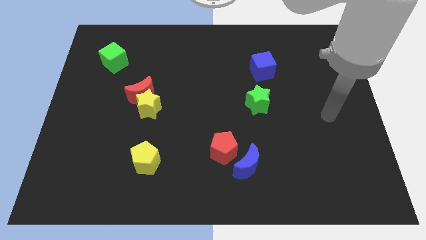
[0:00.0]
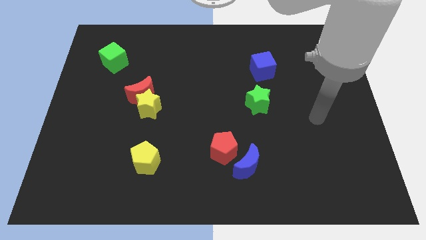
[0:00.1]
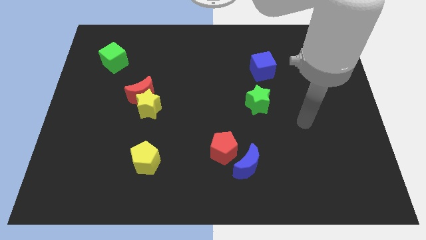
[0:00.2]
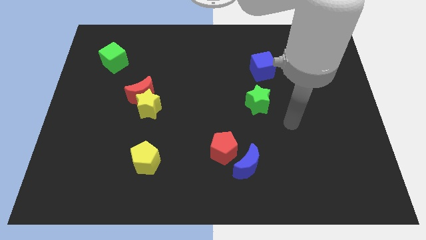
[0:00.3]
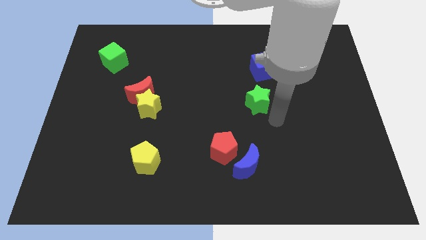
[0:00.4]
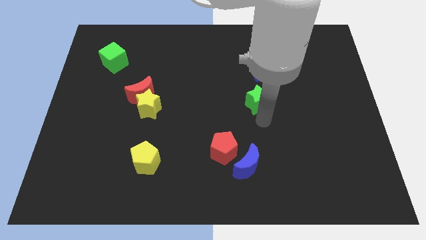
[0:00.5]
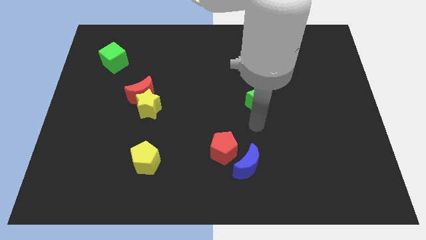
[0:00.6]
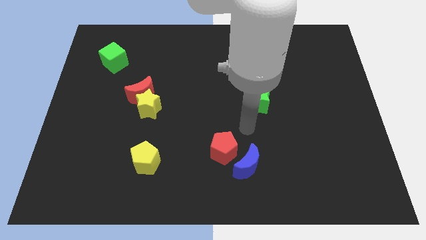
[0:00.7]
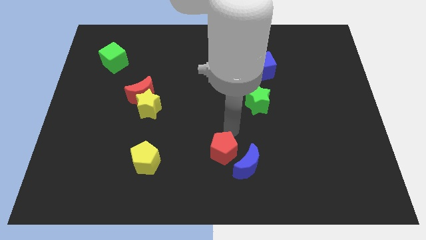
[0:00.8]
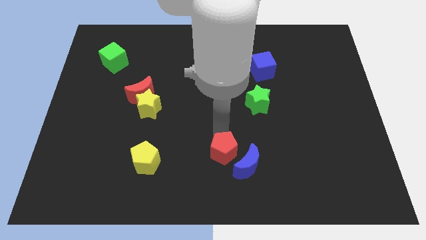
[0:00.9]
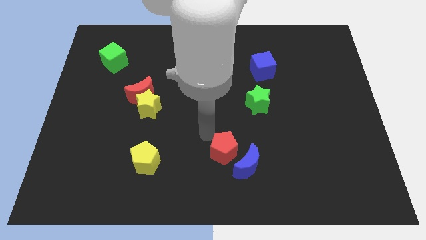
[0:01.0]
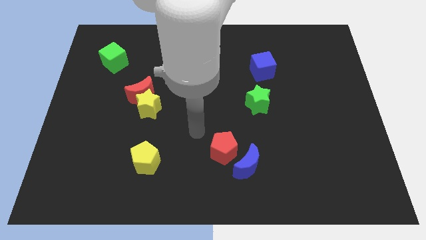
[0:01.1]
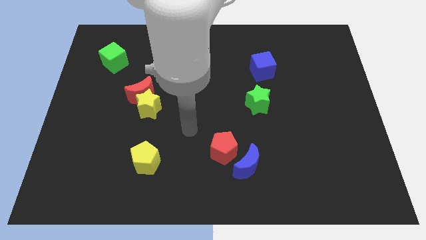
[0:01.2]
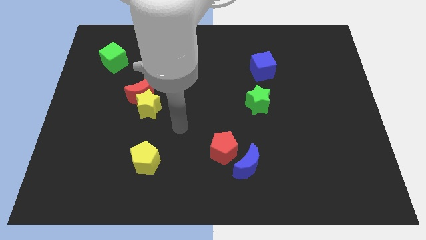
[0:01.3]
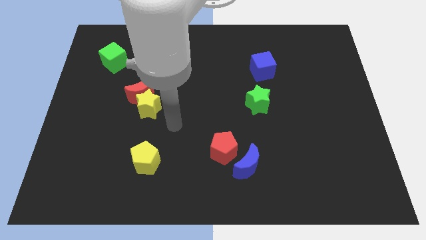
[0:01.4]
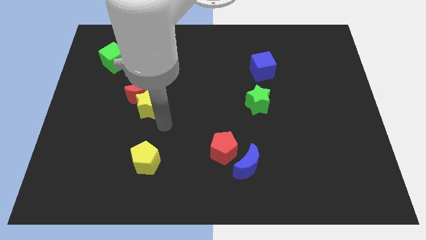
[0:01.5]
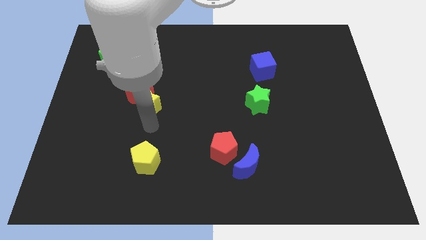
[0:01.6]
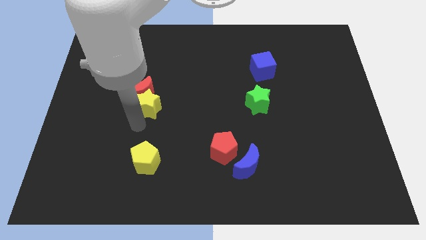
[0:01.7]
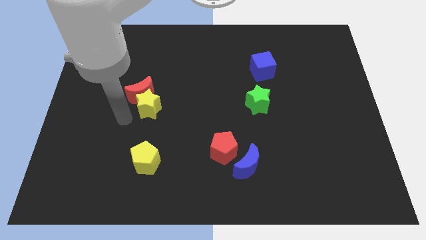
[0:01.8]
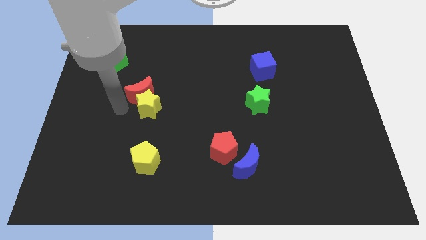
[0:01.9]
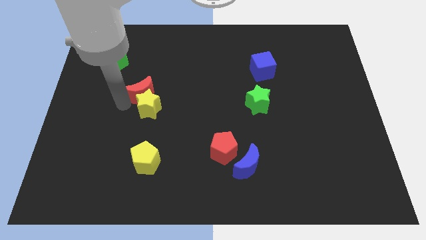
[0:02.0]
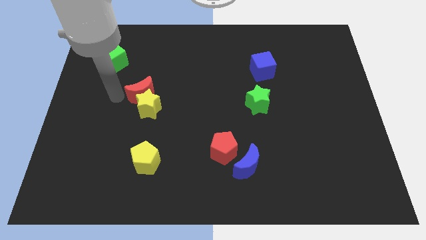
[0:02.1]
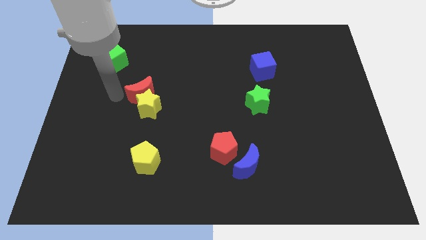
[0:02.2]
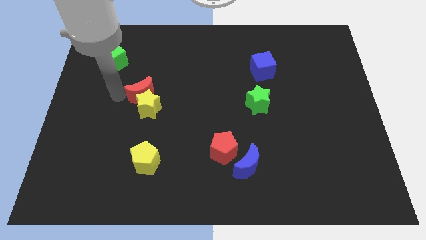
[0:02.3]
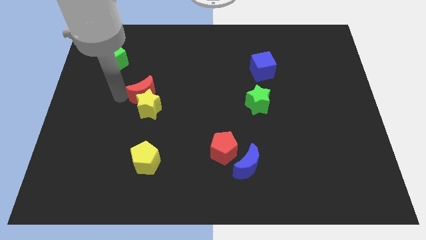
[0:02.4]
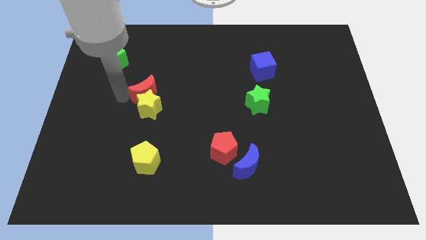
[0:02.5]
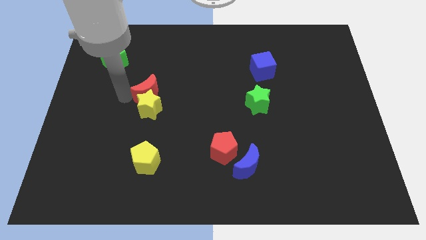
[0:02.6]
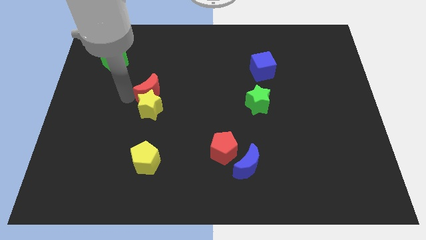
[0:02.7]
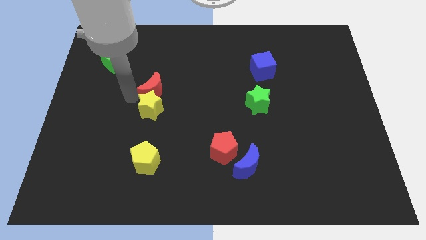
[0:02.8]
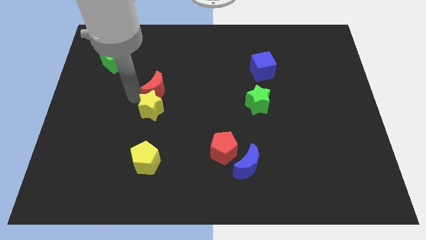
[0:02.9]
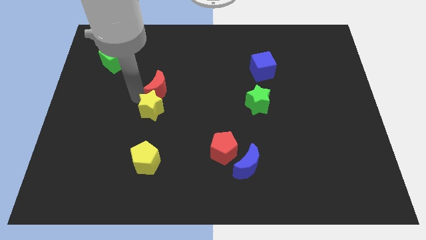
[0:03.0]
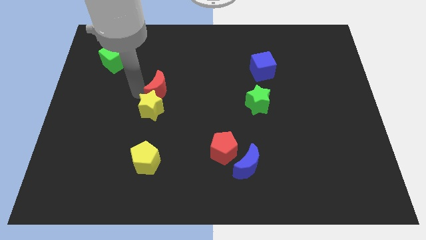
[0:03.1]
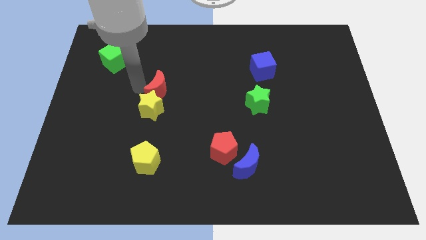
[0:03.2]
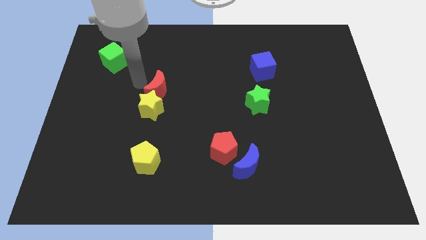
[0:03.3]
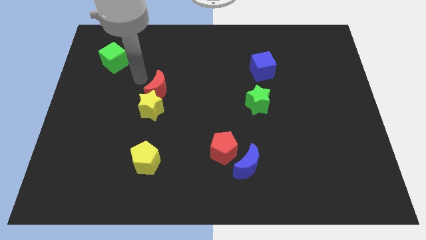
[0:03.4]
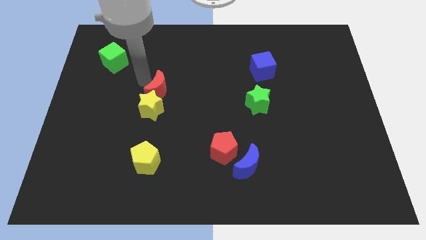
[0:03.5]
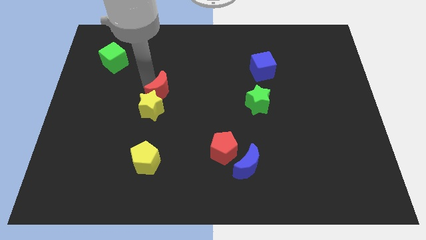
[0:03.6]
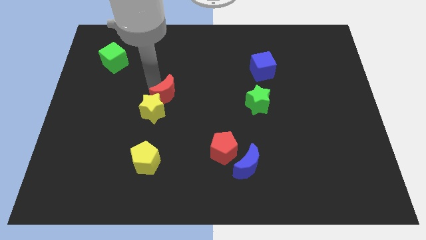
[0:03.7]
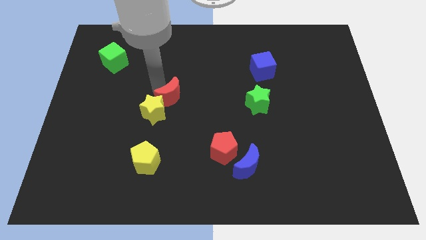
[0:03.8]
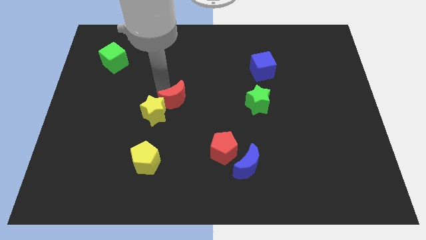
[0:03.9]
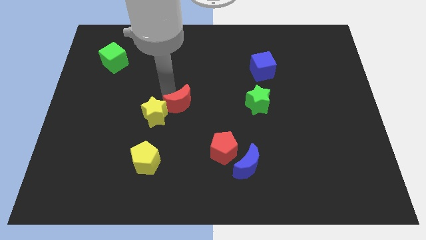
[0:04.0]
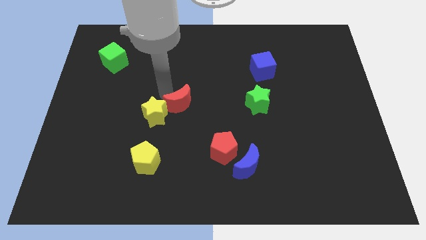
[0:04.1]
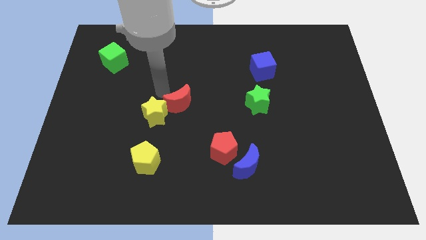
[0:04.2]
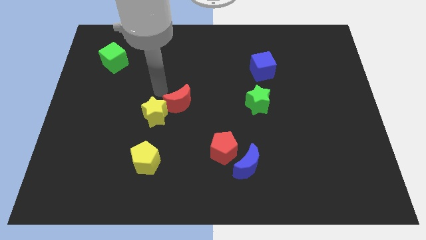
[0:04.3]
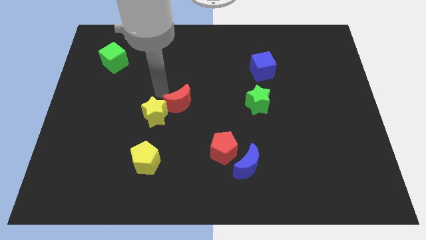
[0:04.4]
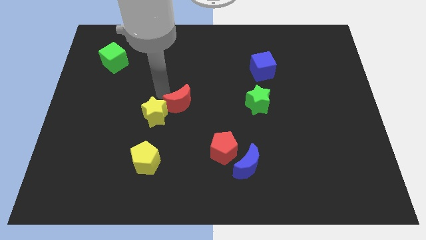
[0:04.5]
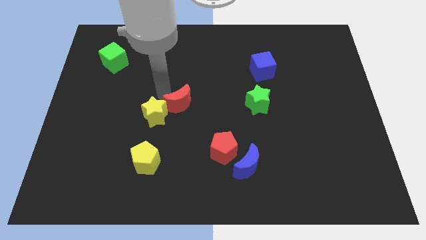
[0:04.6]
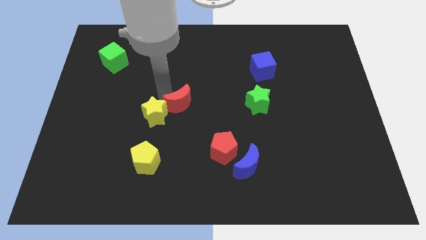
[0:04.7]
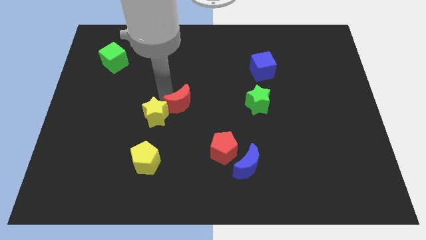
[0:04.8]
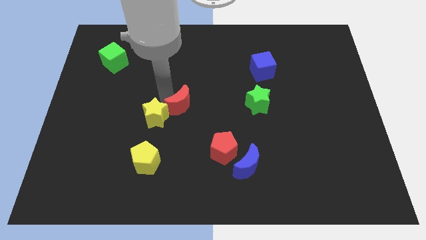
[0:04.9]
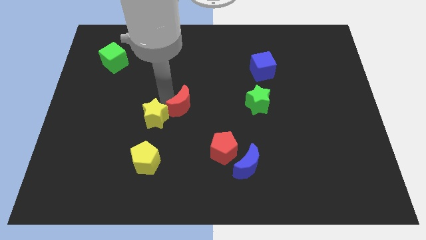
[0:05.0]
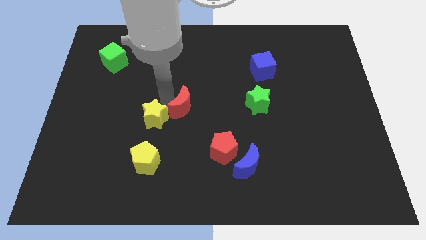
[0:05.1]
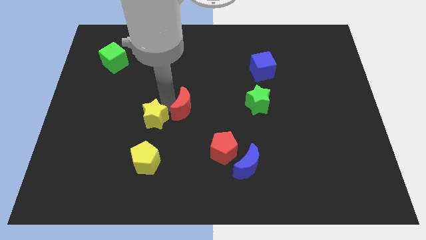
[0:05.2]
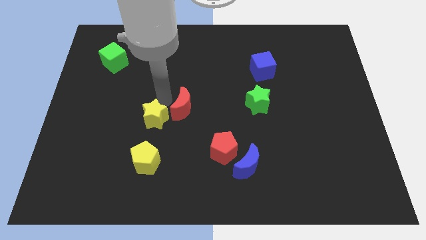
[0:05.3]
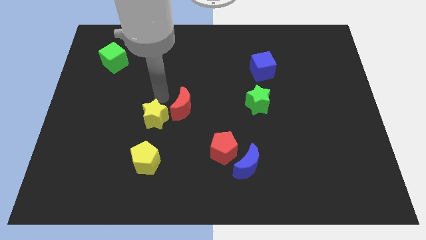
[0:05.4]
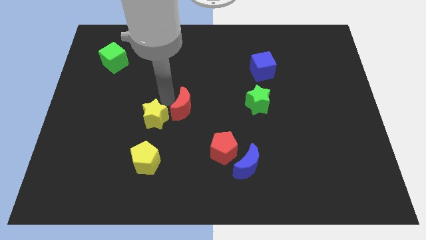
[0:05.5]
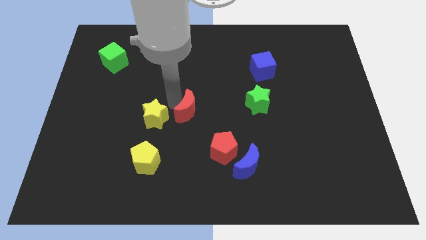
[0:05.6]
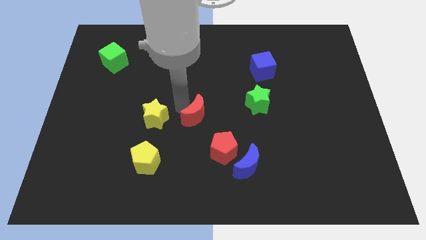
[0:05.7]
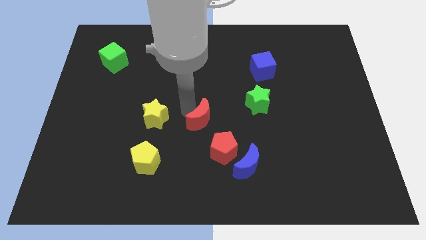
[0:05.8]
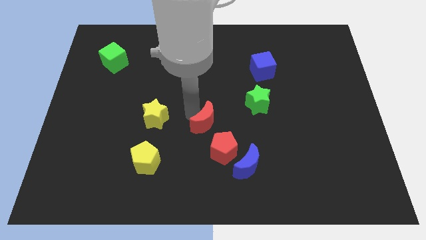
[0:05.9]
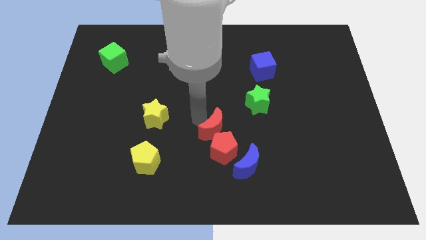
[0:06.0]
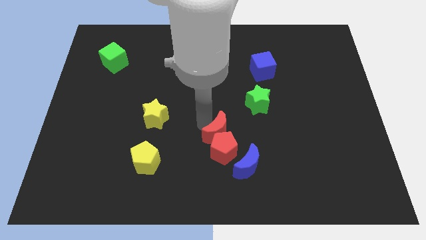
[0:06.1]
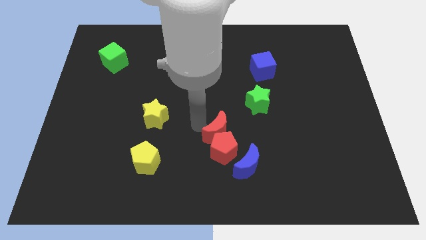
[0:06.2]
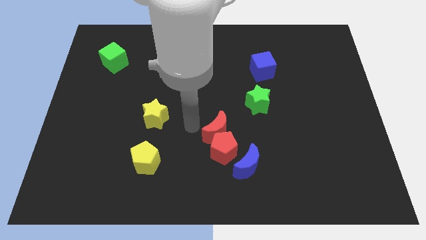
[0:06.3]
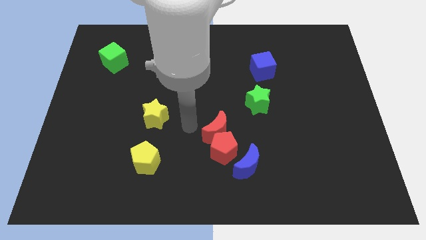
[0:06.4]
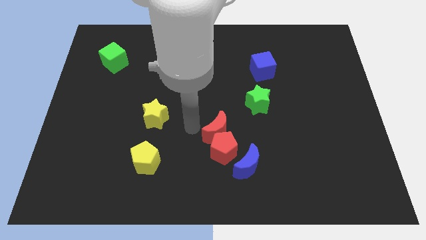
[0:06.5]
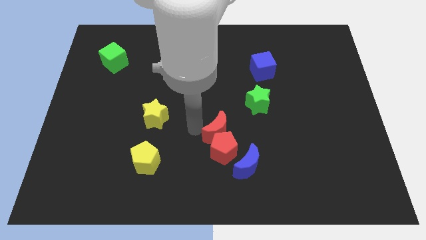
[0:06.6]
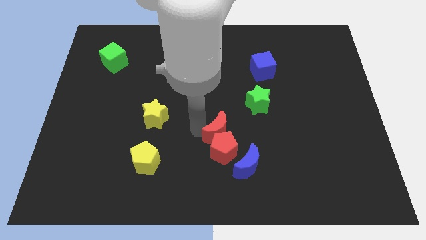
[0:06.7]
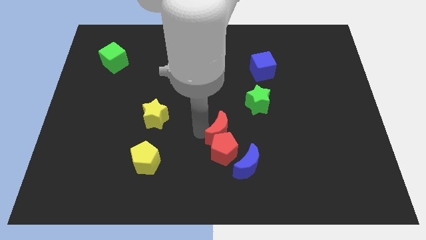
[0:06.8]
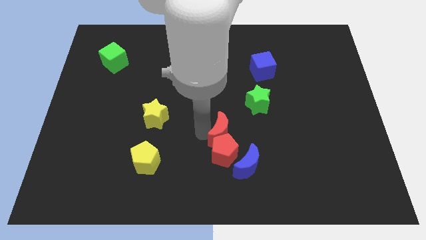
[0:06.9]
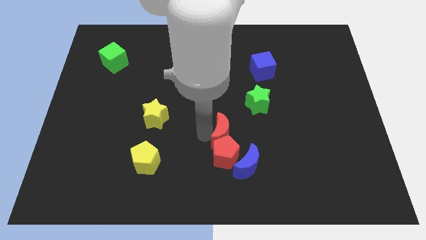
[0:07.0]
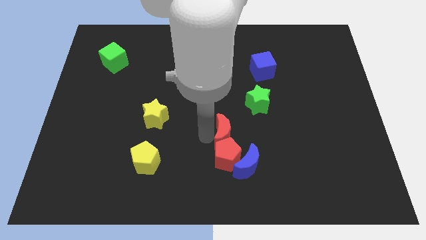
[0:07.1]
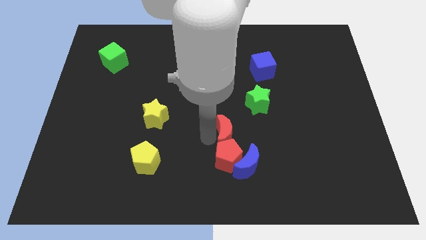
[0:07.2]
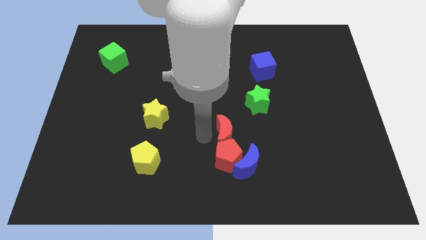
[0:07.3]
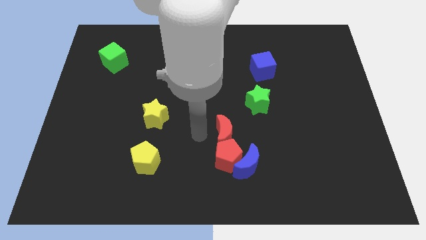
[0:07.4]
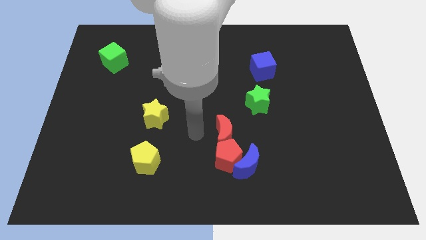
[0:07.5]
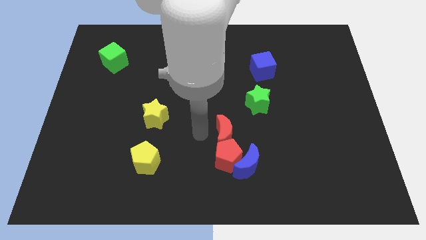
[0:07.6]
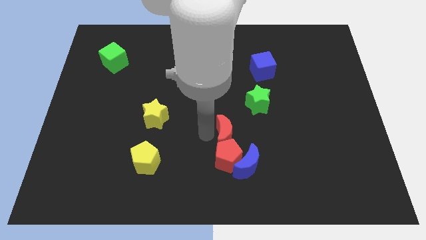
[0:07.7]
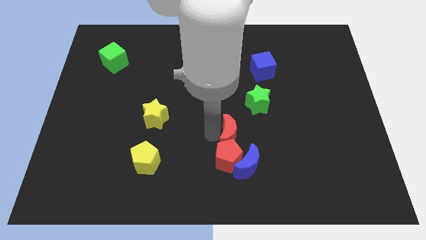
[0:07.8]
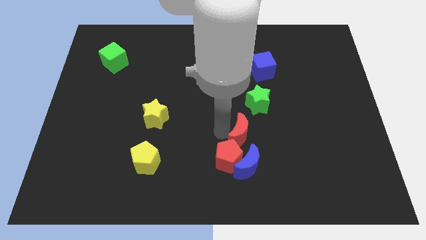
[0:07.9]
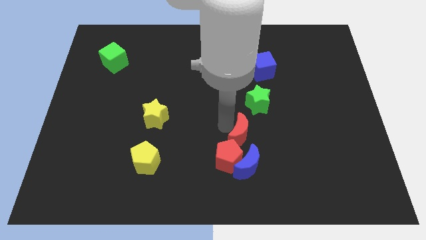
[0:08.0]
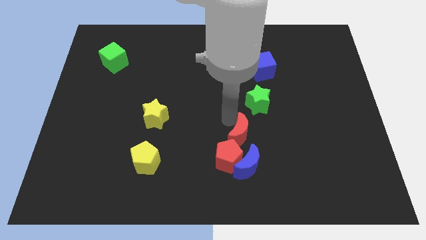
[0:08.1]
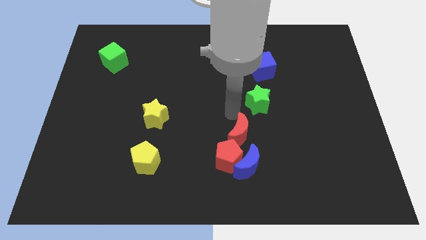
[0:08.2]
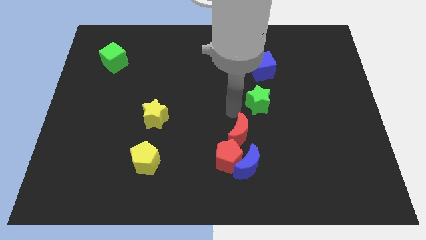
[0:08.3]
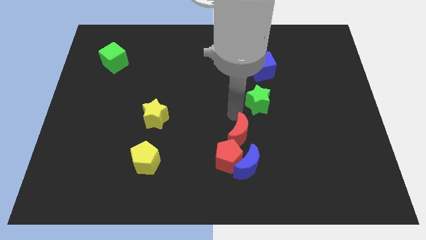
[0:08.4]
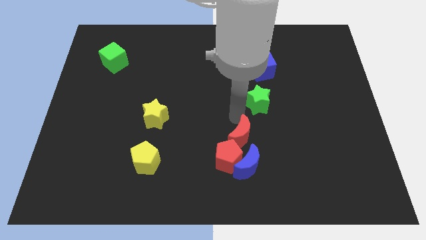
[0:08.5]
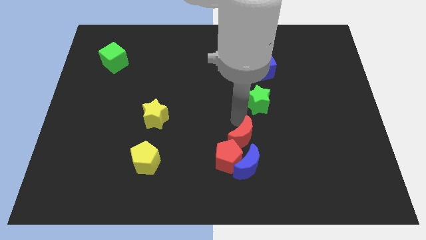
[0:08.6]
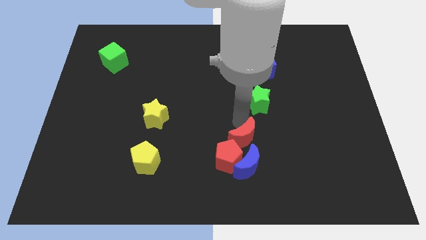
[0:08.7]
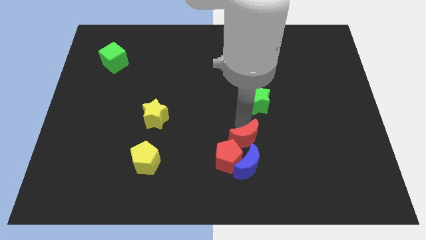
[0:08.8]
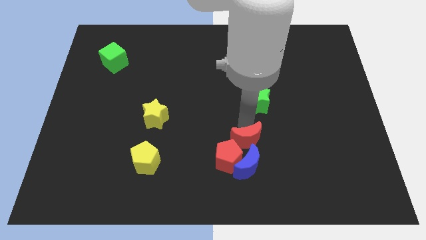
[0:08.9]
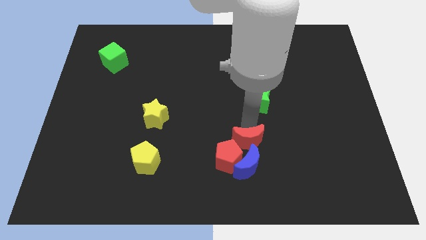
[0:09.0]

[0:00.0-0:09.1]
move the red moon towards the blue moon
